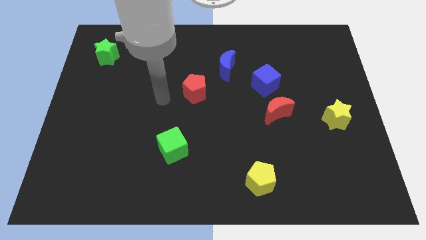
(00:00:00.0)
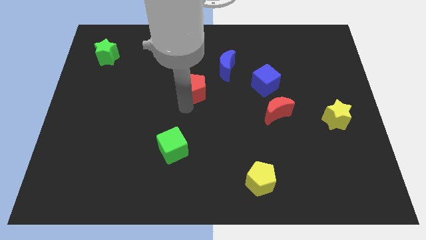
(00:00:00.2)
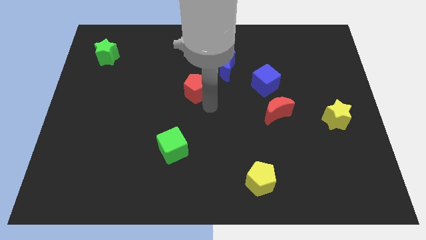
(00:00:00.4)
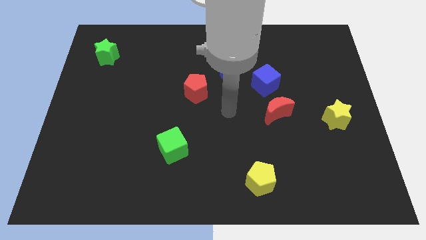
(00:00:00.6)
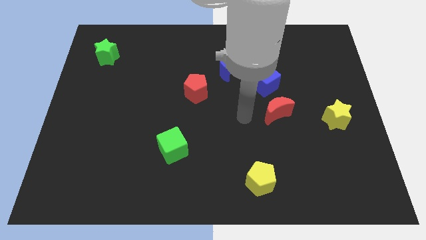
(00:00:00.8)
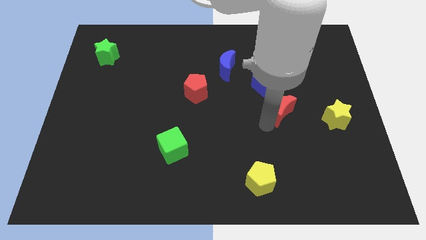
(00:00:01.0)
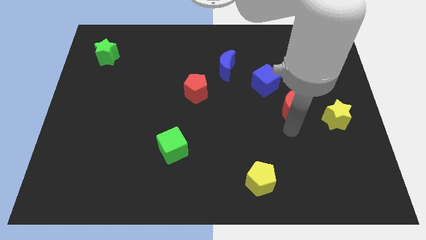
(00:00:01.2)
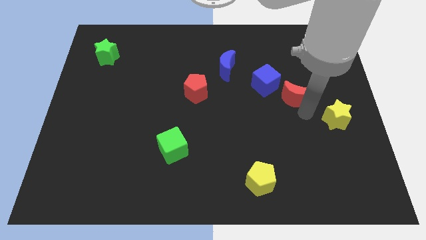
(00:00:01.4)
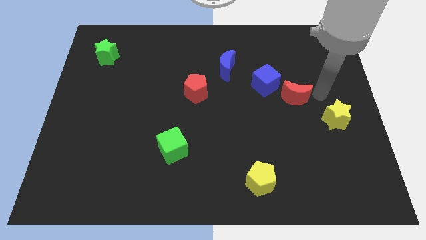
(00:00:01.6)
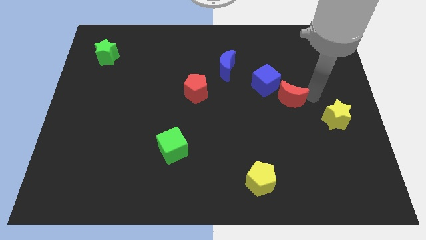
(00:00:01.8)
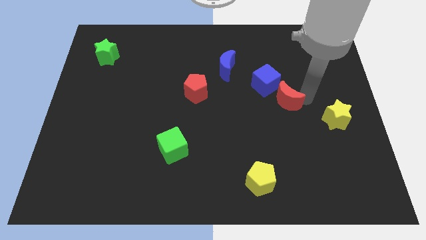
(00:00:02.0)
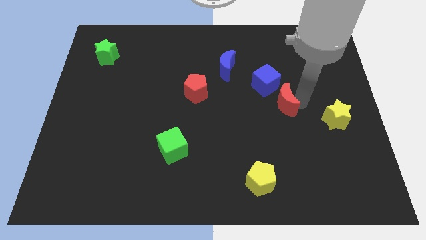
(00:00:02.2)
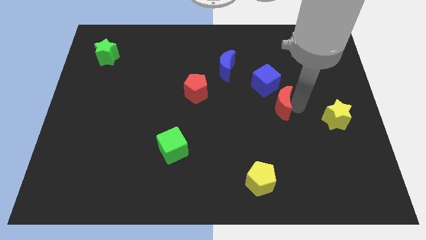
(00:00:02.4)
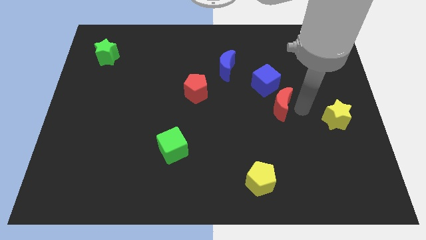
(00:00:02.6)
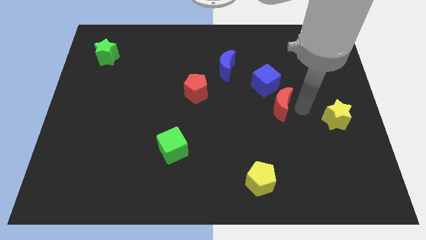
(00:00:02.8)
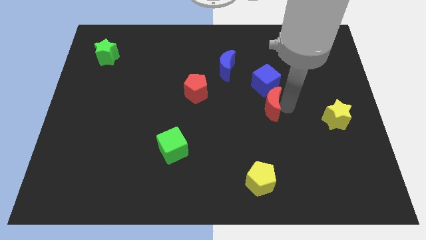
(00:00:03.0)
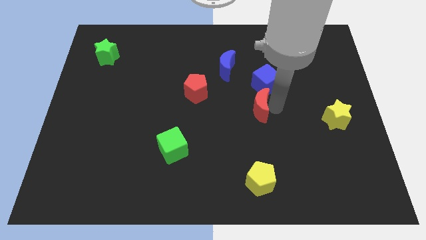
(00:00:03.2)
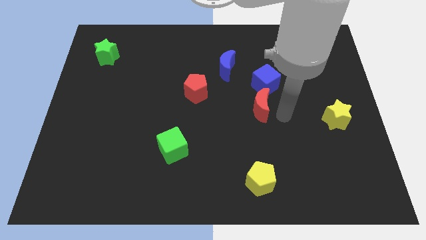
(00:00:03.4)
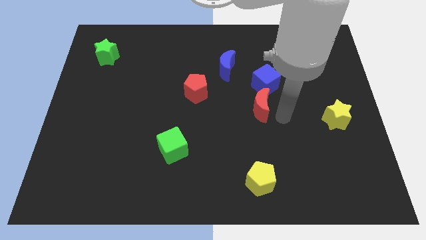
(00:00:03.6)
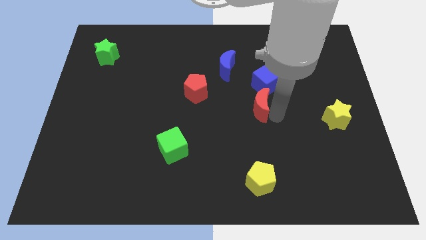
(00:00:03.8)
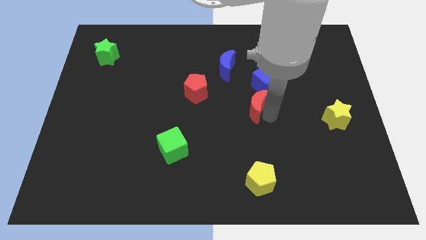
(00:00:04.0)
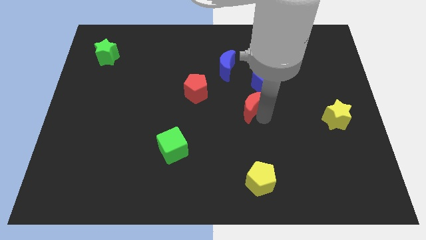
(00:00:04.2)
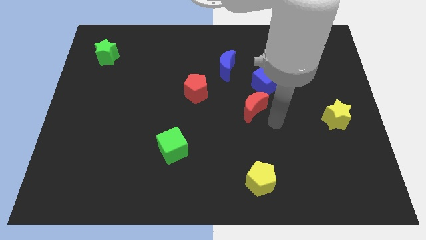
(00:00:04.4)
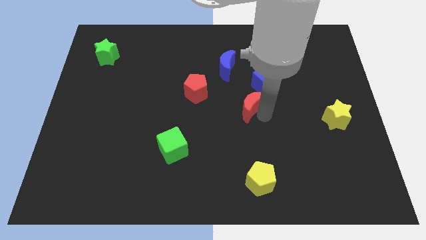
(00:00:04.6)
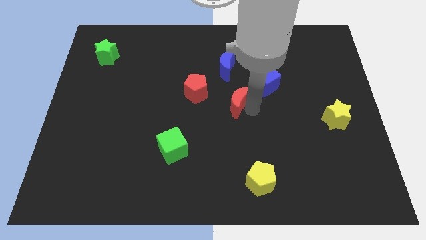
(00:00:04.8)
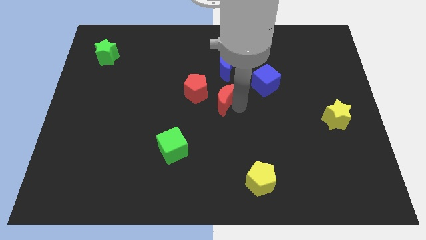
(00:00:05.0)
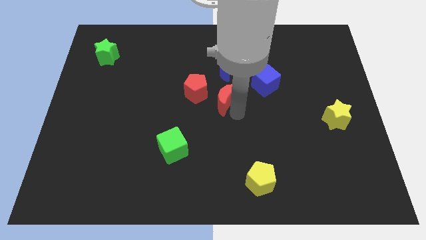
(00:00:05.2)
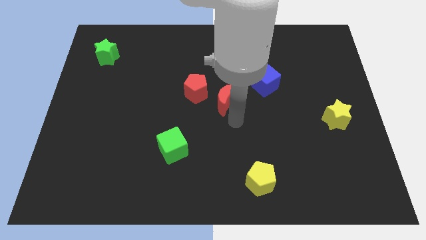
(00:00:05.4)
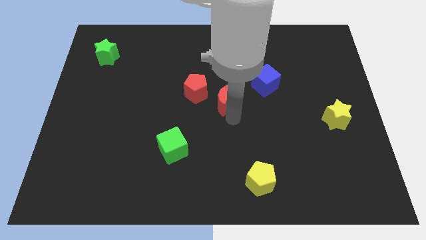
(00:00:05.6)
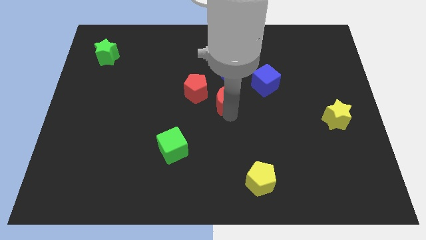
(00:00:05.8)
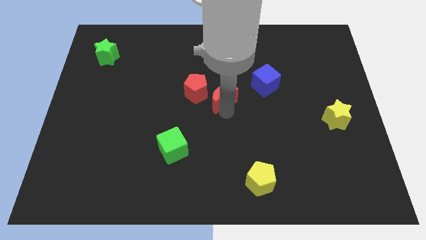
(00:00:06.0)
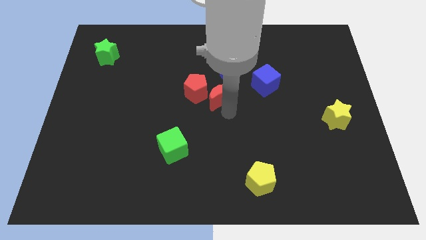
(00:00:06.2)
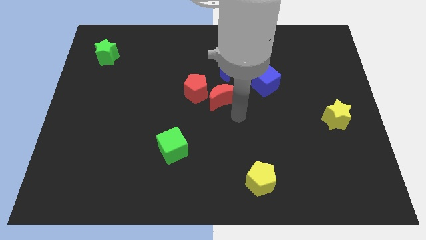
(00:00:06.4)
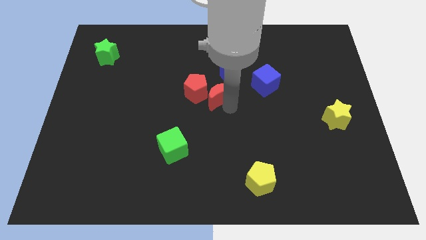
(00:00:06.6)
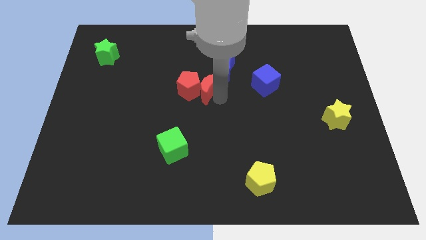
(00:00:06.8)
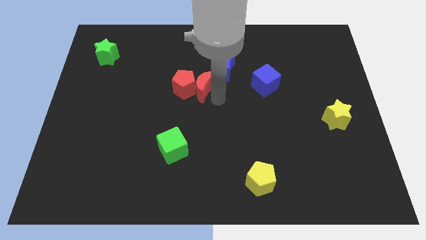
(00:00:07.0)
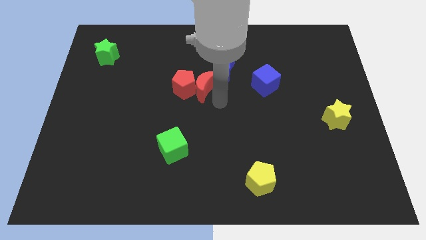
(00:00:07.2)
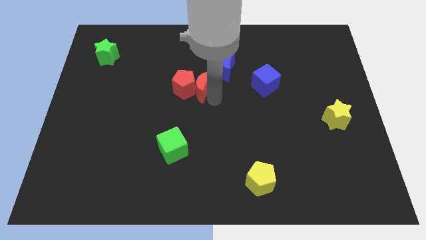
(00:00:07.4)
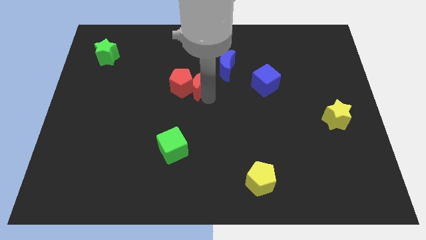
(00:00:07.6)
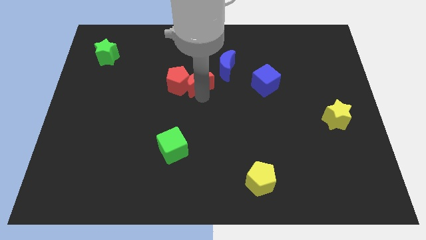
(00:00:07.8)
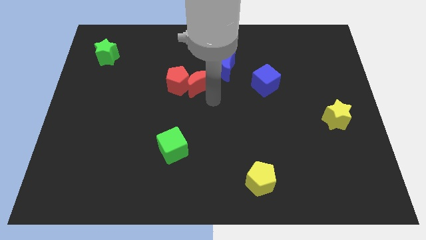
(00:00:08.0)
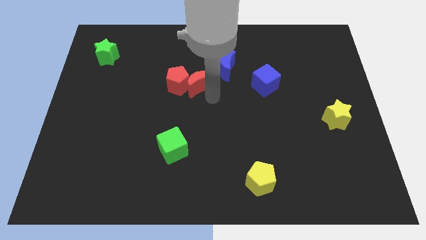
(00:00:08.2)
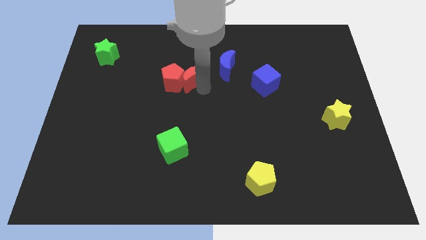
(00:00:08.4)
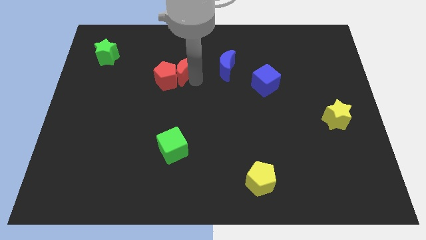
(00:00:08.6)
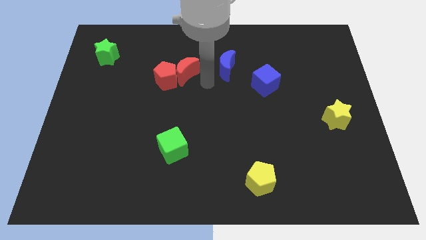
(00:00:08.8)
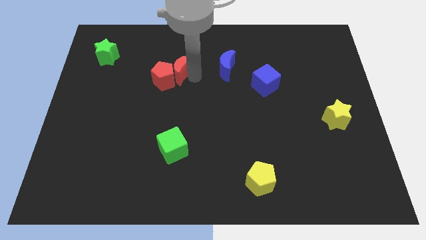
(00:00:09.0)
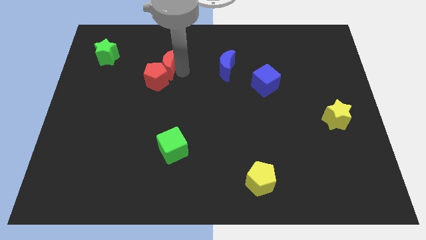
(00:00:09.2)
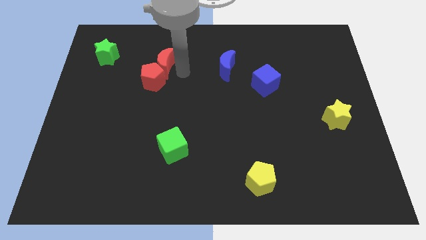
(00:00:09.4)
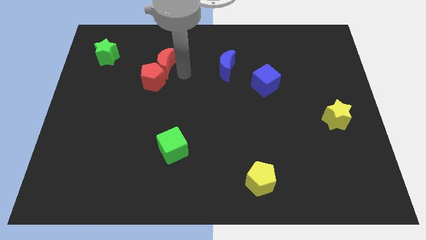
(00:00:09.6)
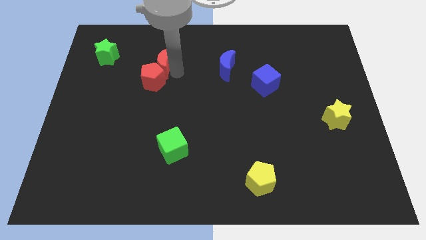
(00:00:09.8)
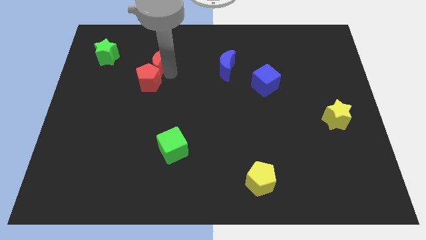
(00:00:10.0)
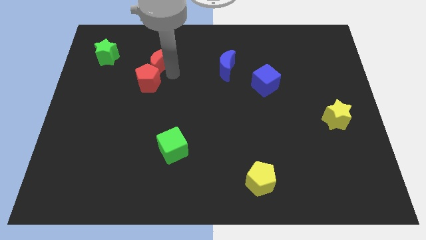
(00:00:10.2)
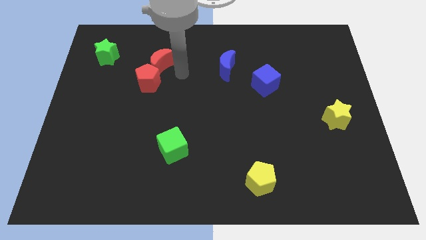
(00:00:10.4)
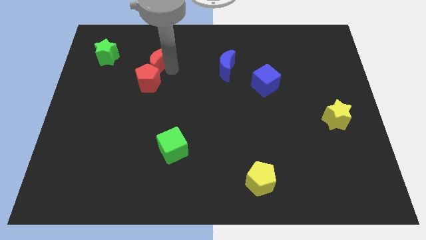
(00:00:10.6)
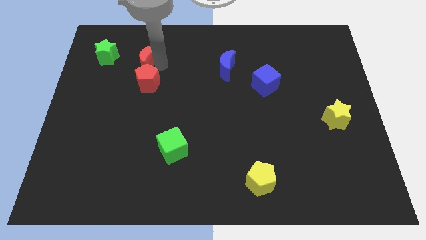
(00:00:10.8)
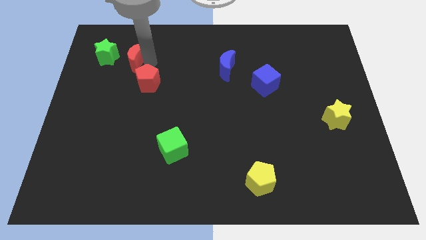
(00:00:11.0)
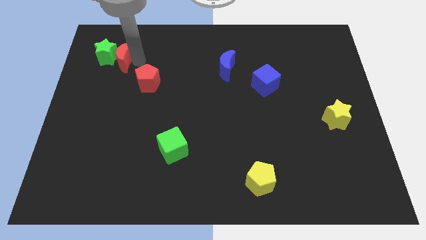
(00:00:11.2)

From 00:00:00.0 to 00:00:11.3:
slide the red moon towards the green star

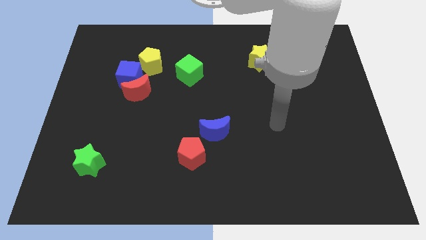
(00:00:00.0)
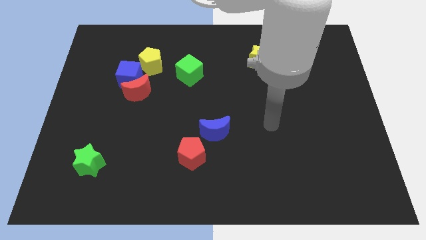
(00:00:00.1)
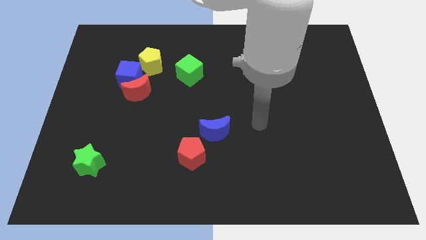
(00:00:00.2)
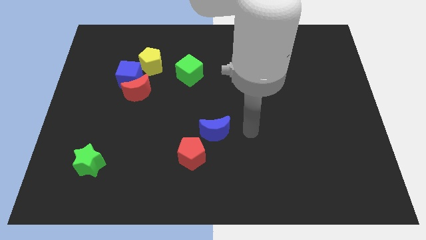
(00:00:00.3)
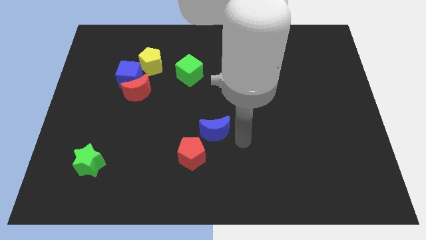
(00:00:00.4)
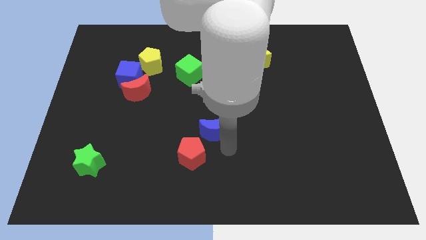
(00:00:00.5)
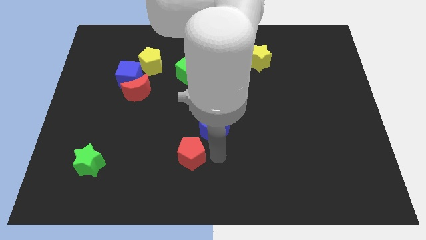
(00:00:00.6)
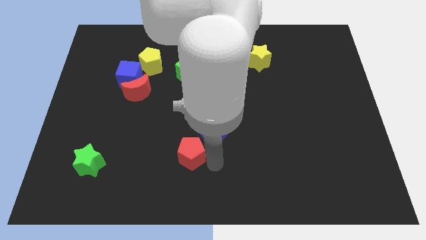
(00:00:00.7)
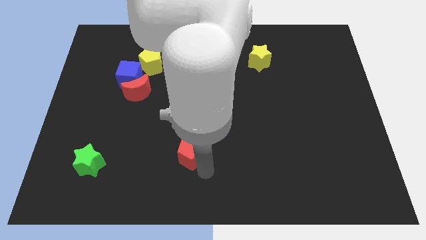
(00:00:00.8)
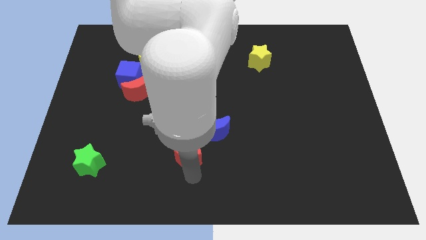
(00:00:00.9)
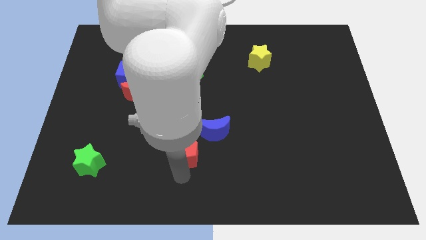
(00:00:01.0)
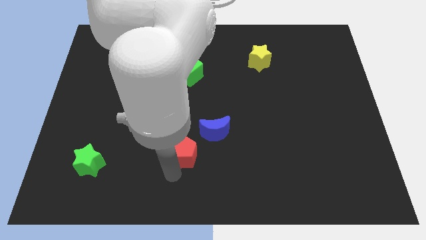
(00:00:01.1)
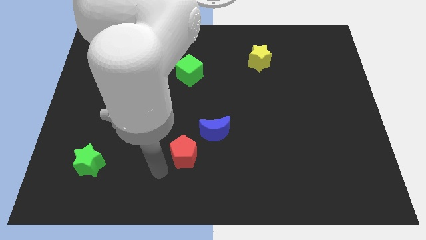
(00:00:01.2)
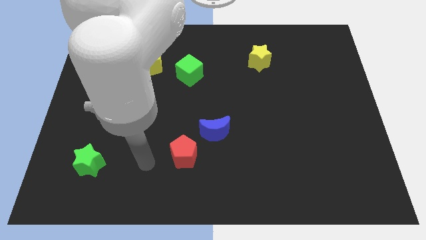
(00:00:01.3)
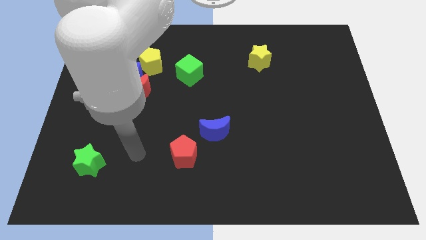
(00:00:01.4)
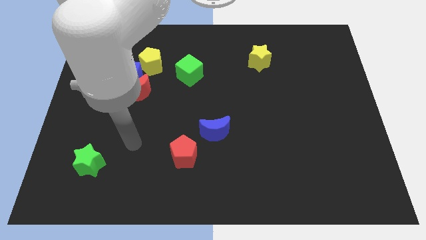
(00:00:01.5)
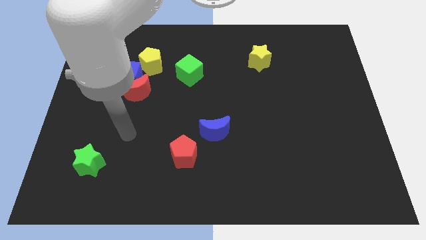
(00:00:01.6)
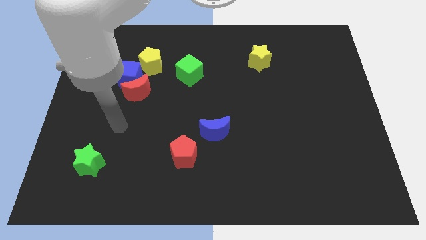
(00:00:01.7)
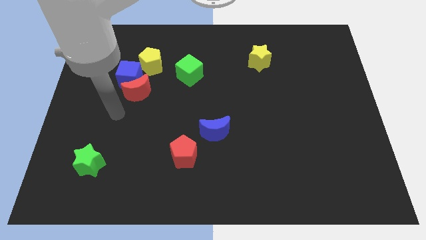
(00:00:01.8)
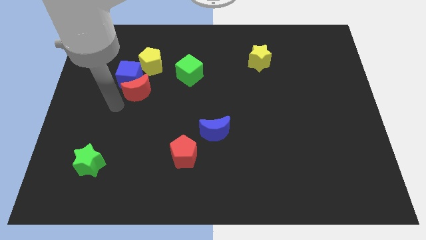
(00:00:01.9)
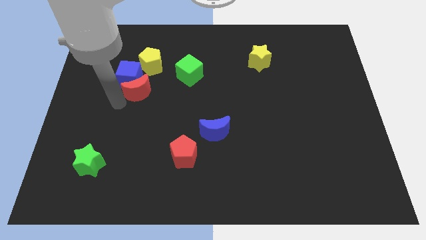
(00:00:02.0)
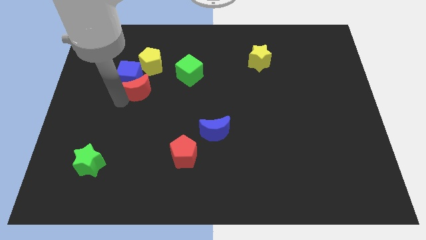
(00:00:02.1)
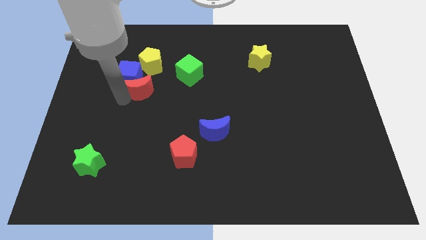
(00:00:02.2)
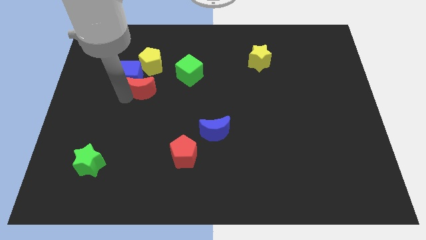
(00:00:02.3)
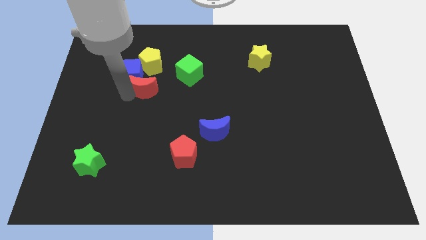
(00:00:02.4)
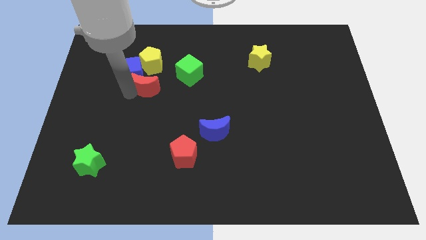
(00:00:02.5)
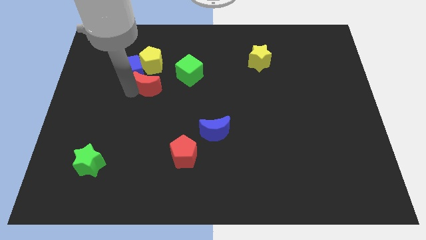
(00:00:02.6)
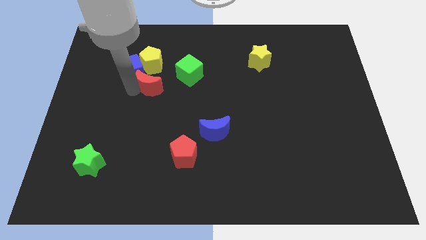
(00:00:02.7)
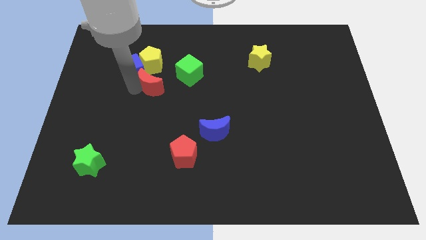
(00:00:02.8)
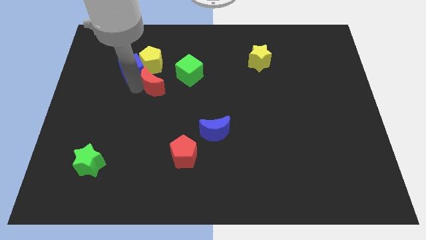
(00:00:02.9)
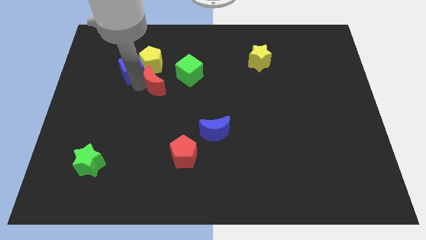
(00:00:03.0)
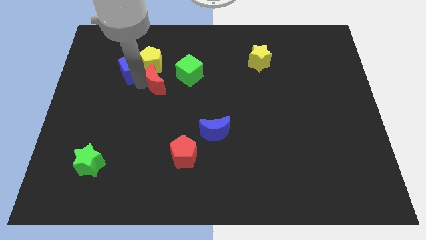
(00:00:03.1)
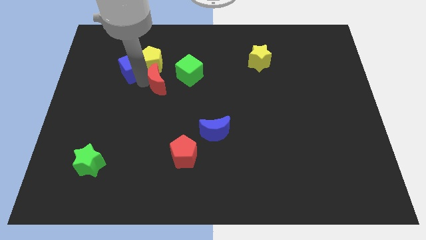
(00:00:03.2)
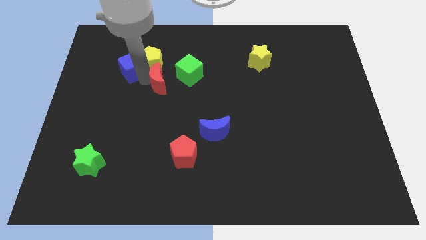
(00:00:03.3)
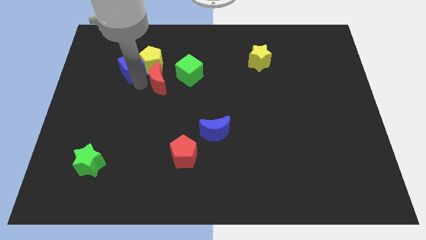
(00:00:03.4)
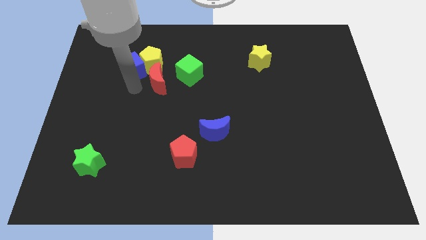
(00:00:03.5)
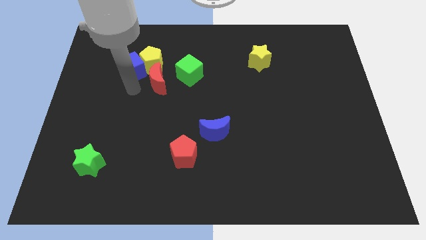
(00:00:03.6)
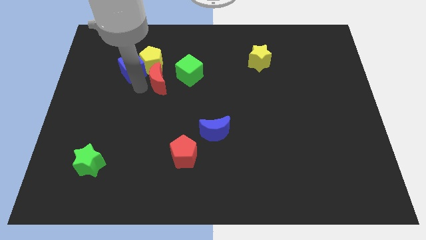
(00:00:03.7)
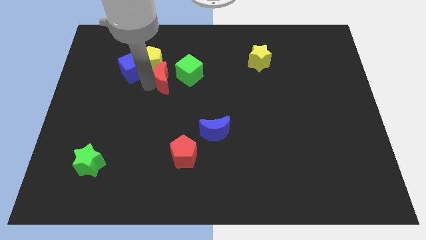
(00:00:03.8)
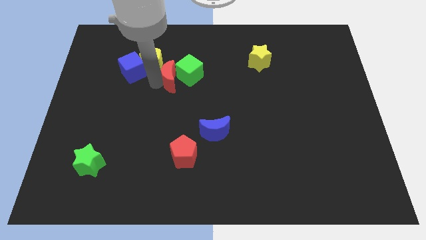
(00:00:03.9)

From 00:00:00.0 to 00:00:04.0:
move the red moon close to the green cube
